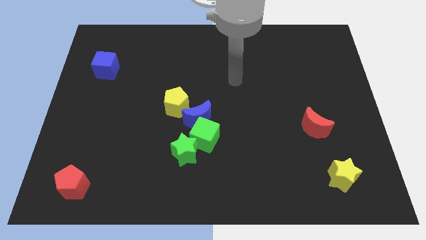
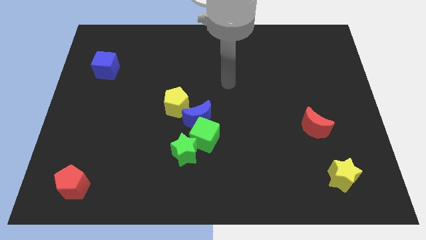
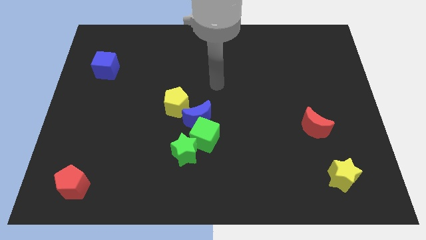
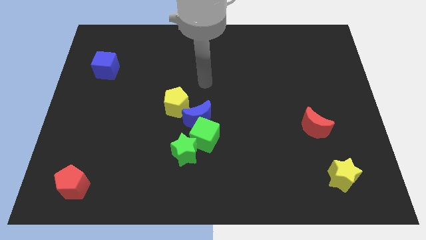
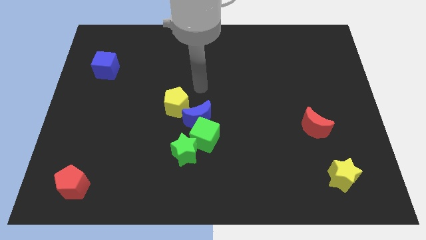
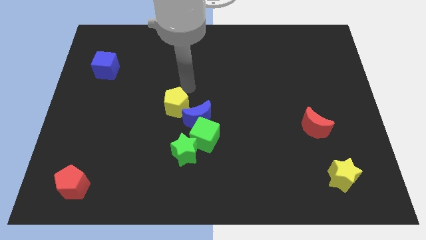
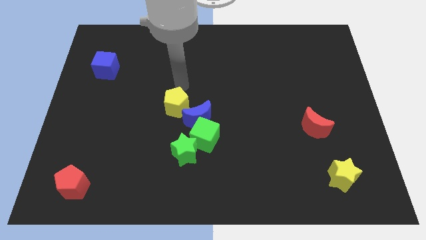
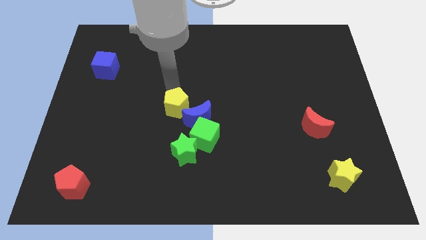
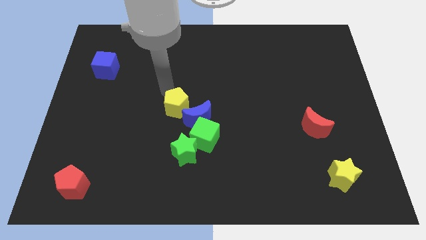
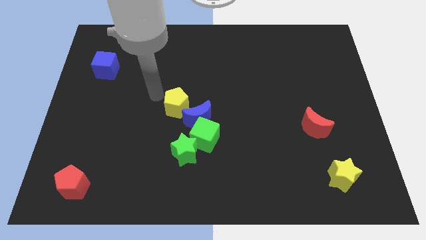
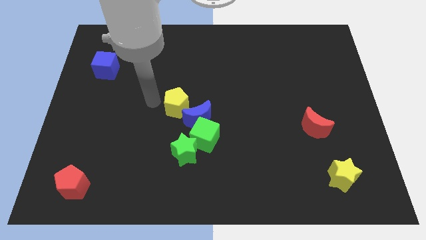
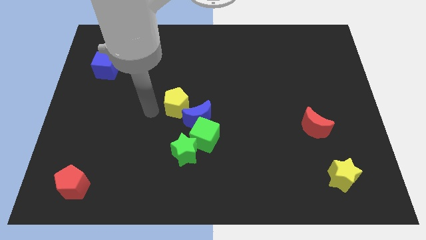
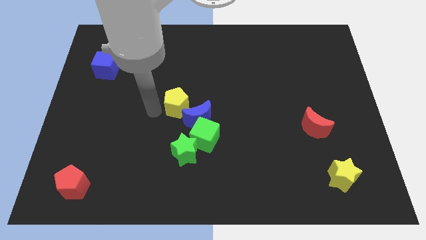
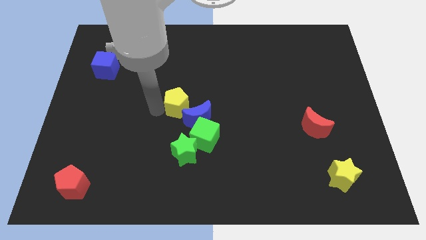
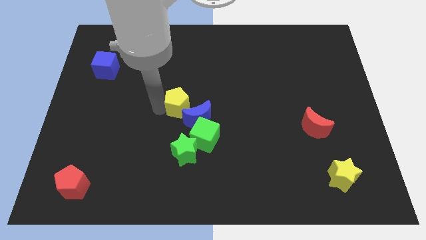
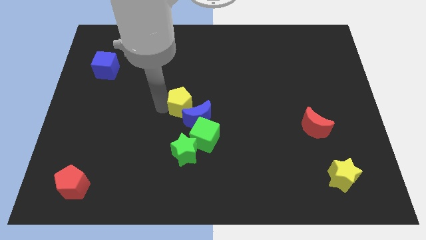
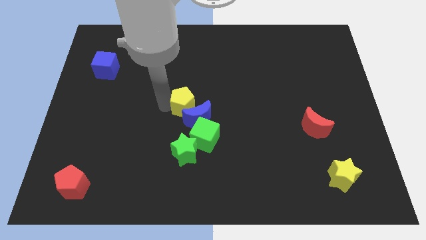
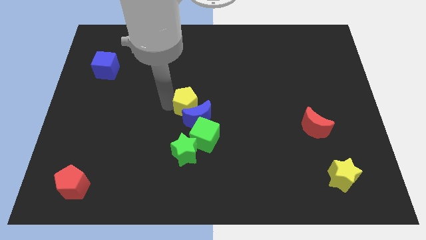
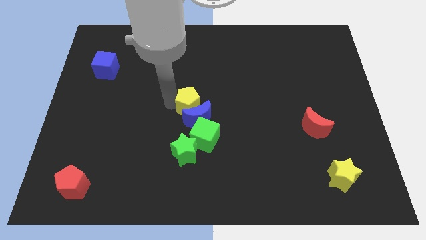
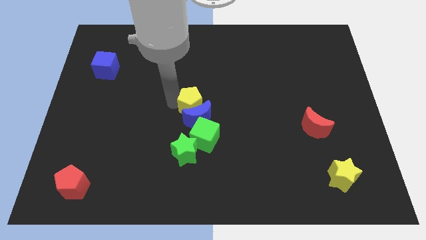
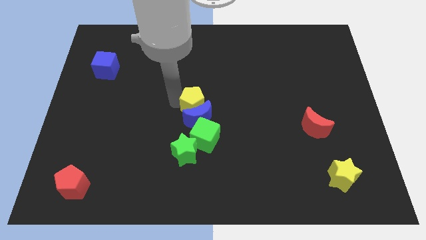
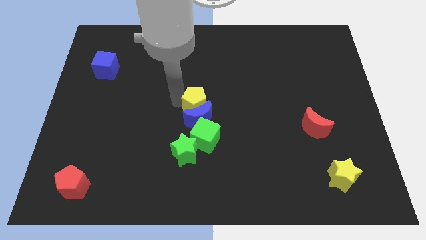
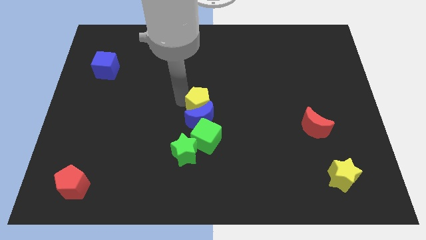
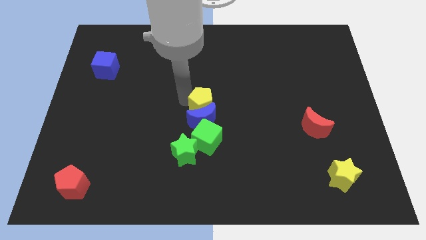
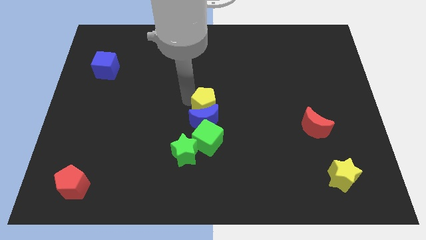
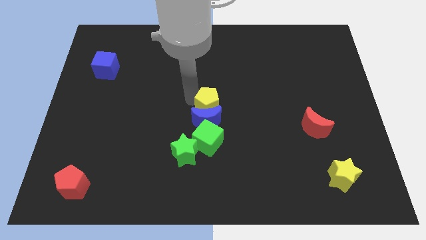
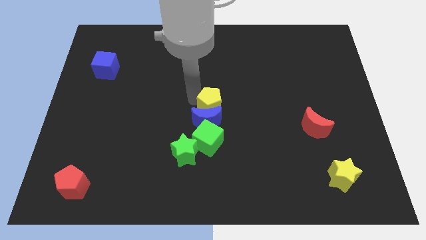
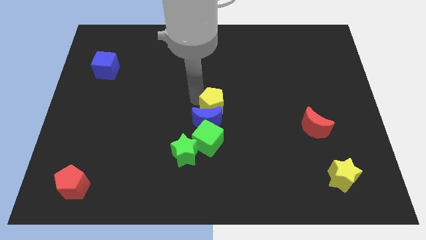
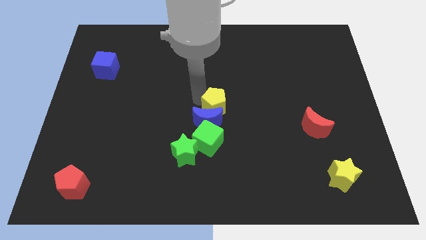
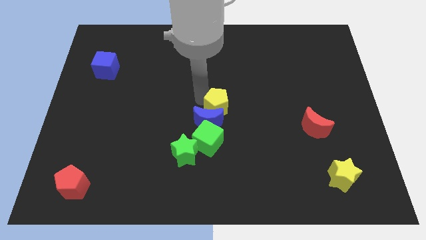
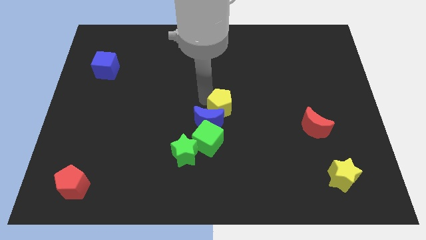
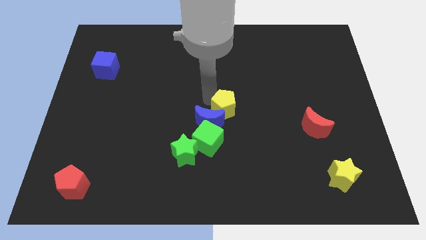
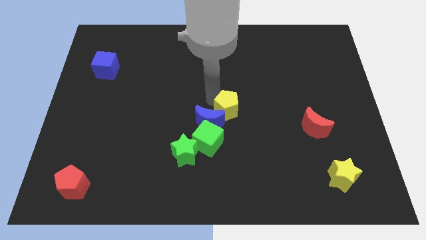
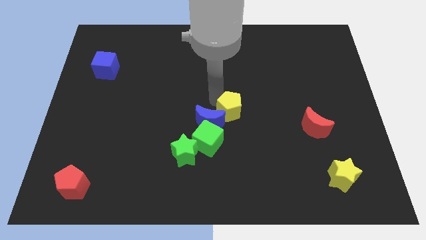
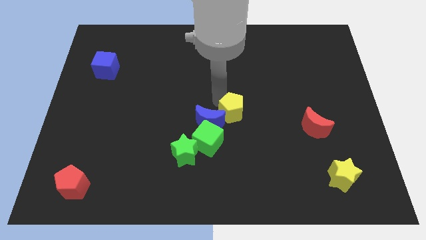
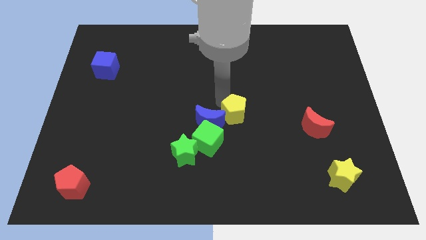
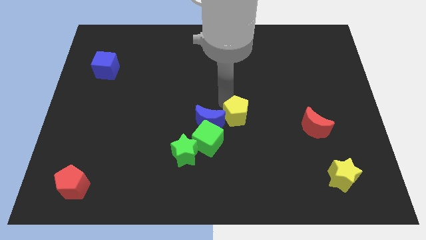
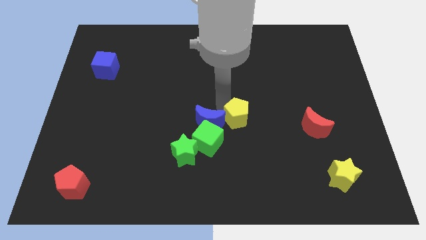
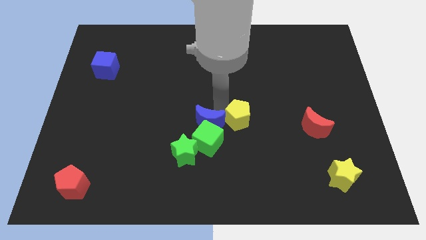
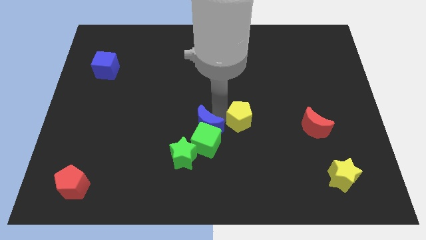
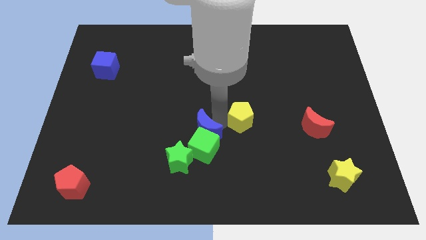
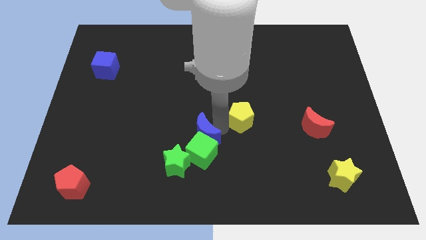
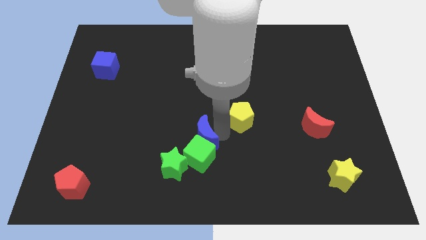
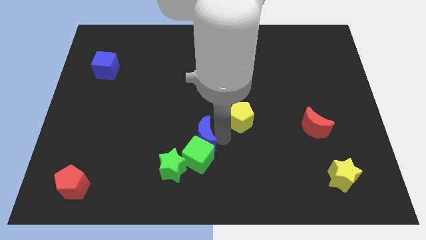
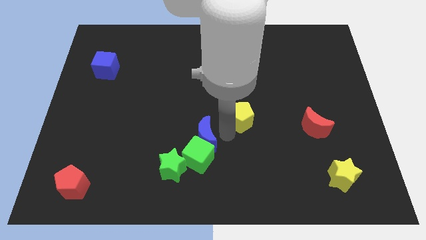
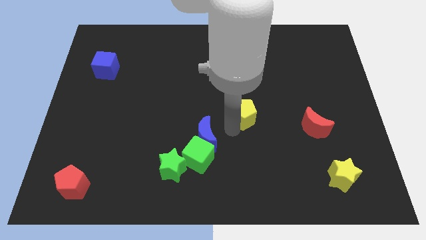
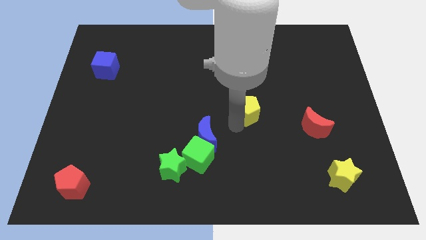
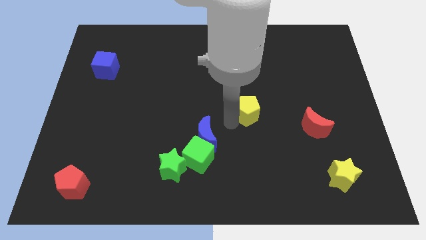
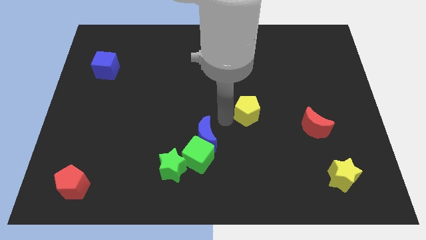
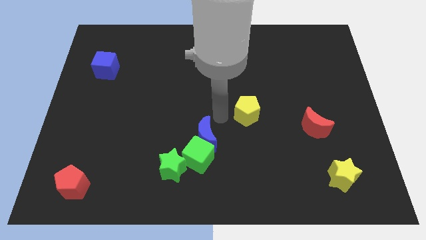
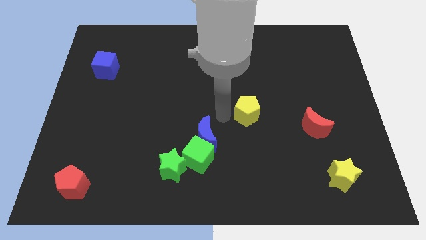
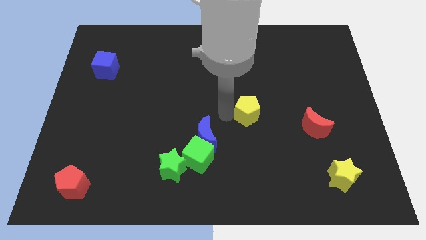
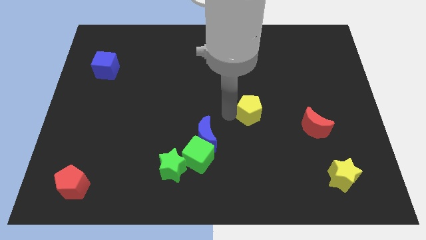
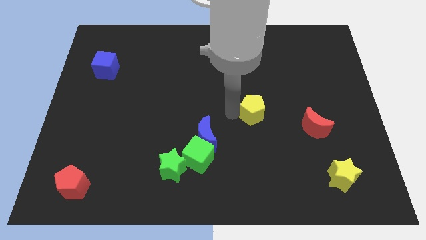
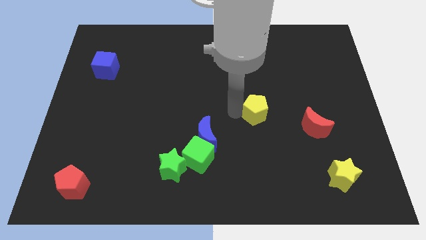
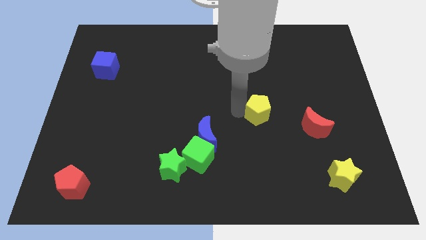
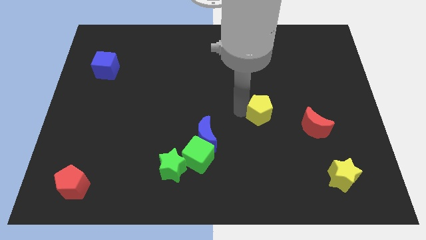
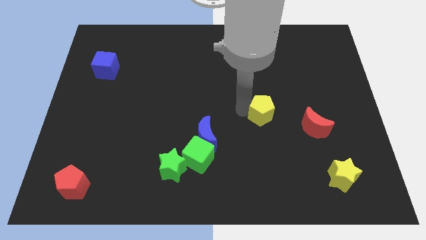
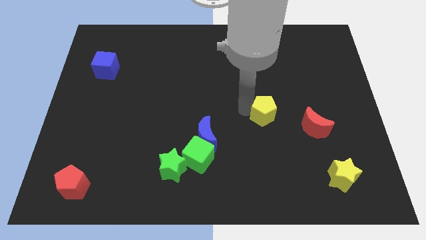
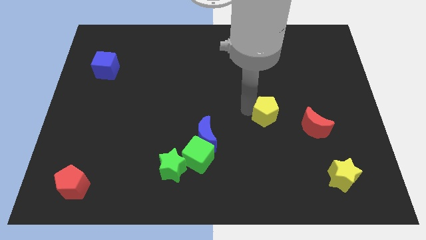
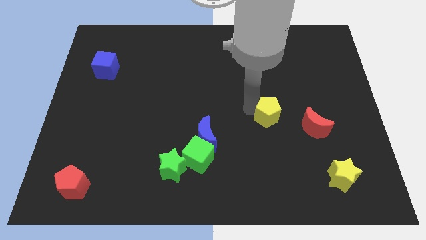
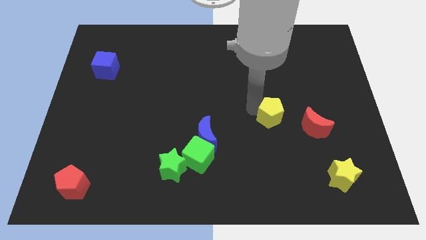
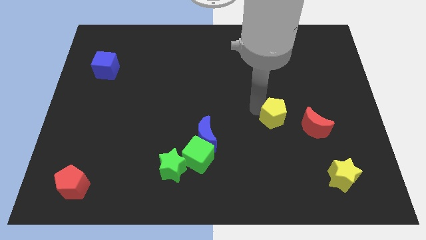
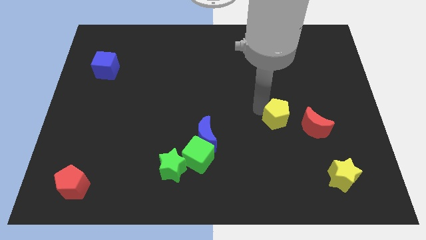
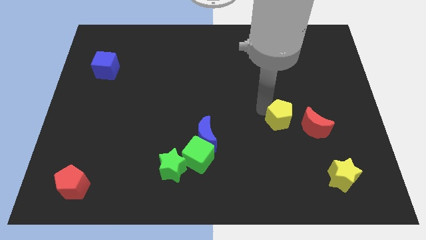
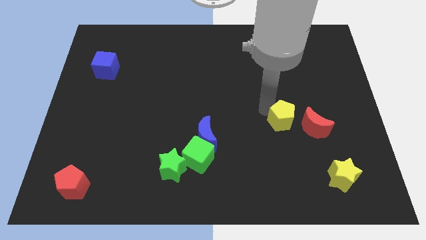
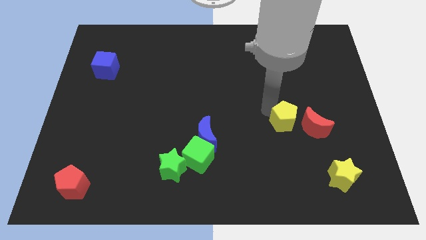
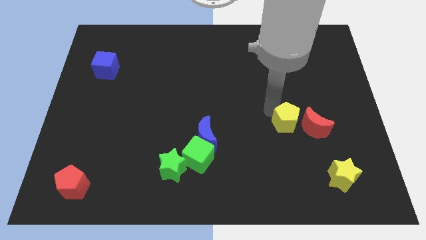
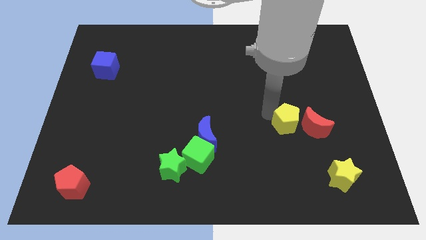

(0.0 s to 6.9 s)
put the yellow pentagon close to the red moon

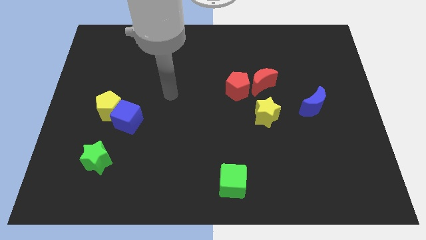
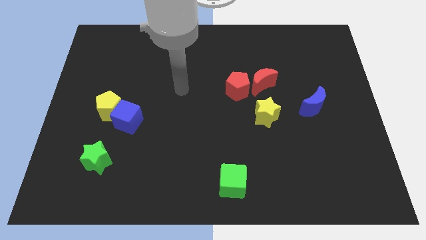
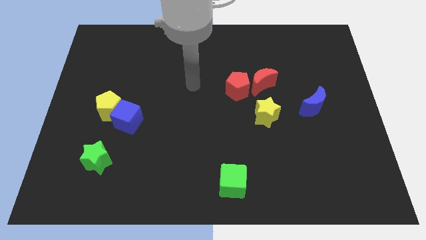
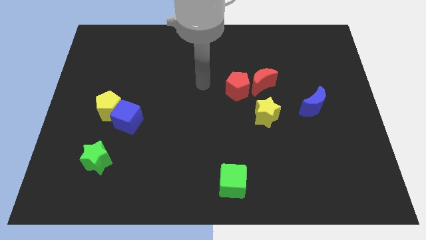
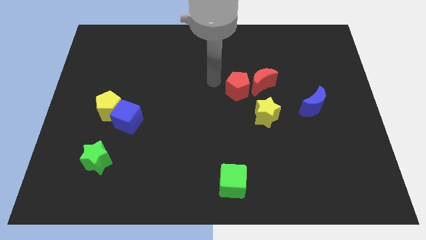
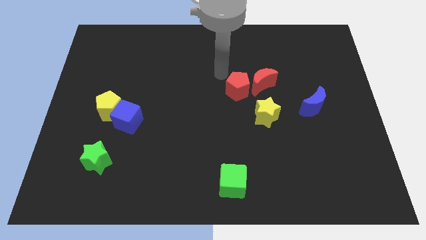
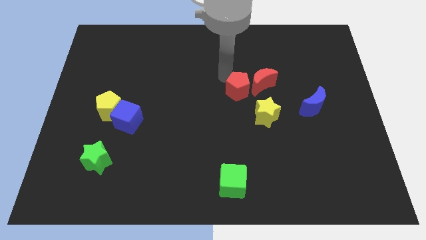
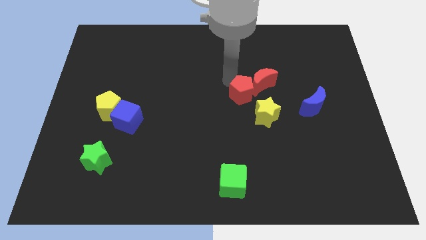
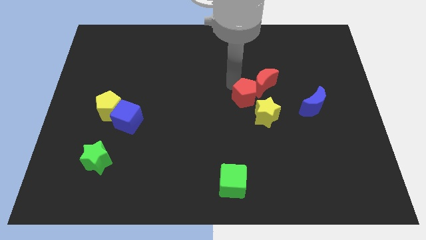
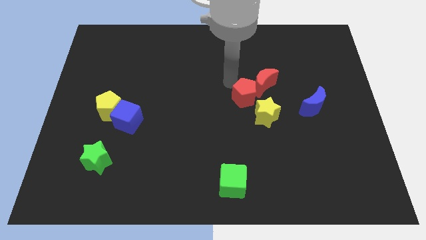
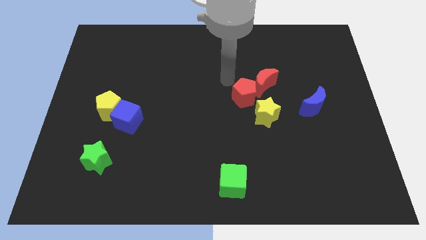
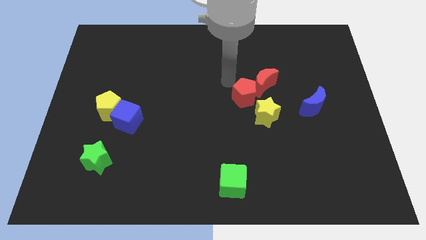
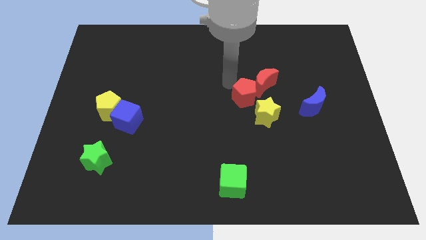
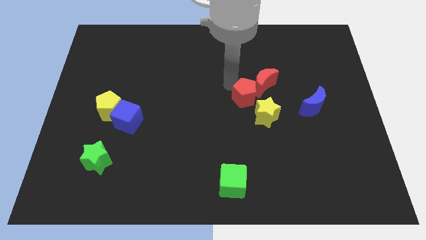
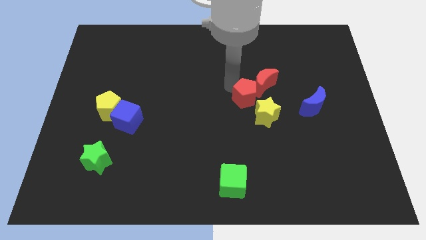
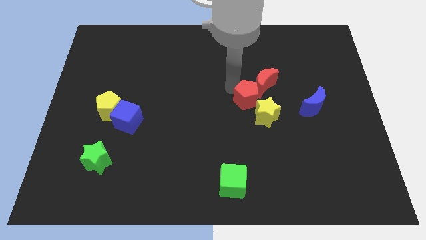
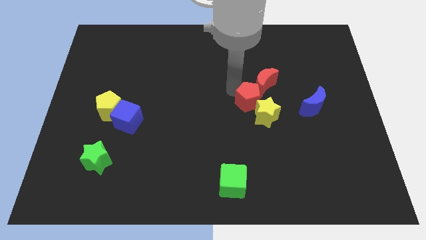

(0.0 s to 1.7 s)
push the red pentagon next to the yellow star
